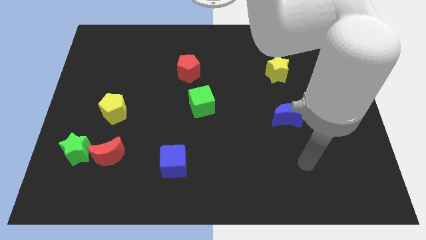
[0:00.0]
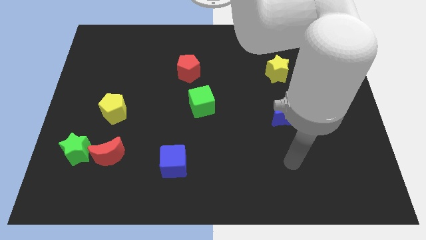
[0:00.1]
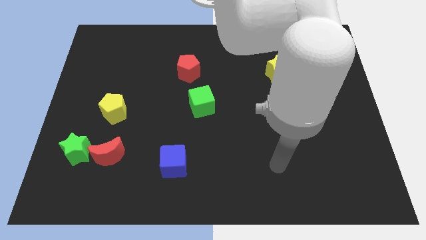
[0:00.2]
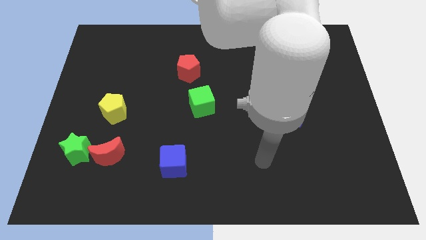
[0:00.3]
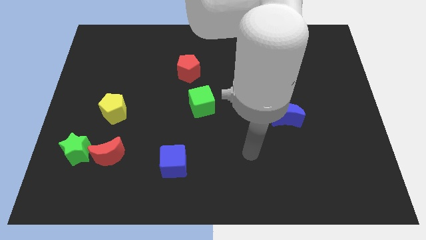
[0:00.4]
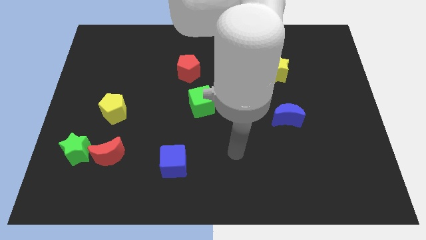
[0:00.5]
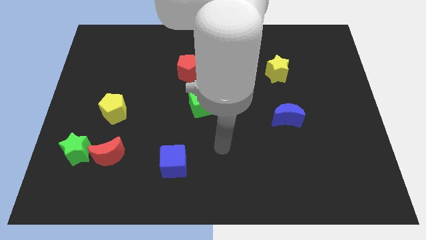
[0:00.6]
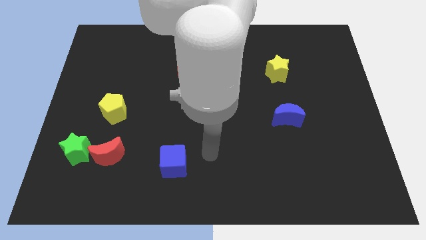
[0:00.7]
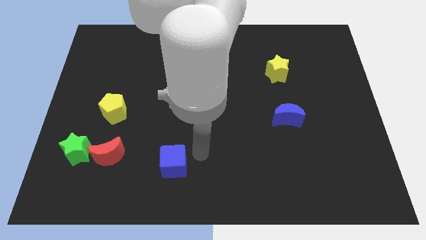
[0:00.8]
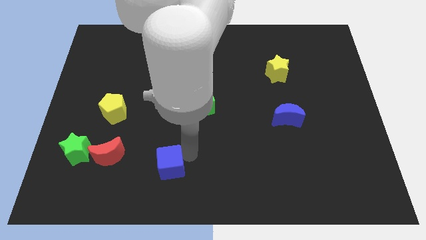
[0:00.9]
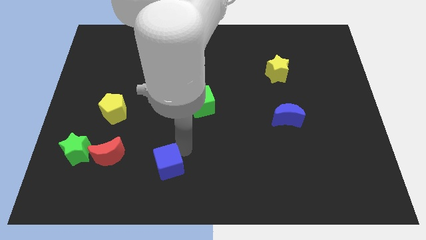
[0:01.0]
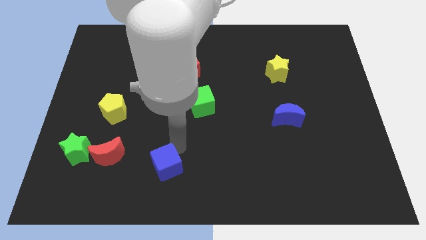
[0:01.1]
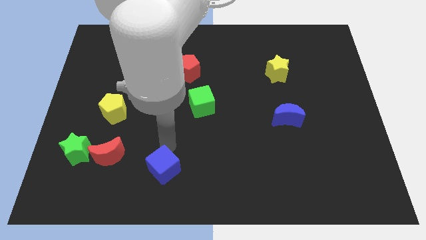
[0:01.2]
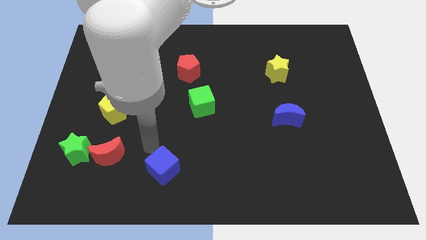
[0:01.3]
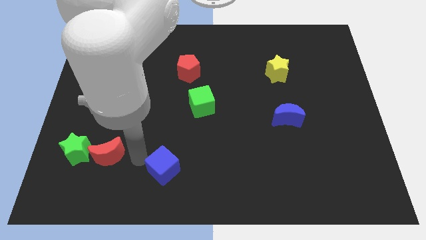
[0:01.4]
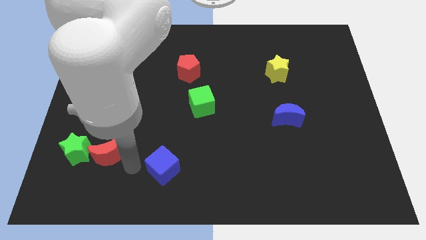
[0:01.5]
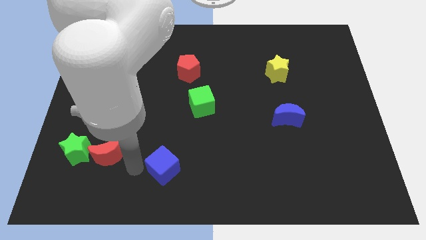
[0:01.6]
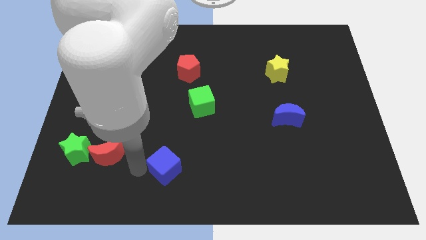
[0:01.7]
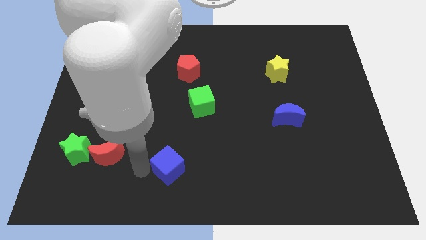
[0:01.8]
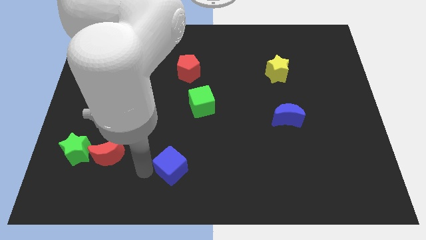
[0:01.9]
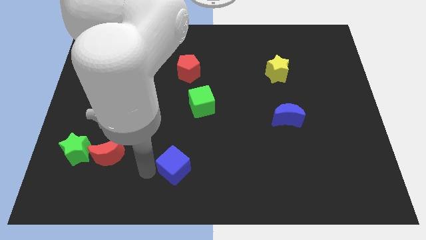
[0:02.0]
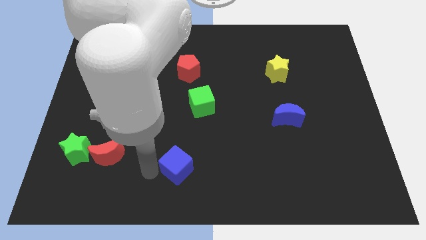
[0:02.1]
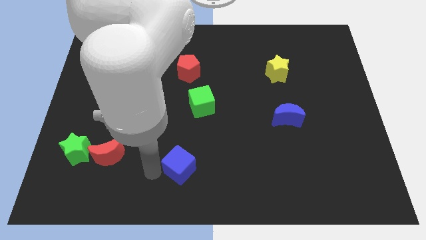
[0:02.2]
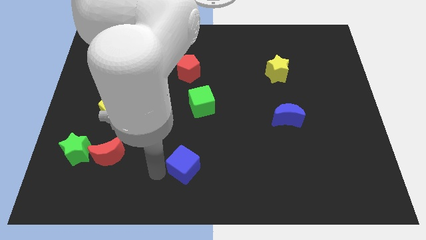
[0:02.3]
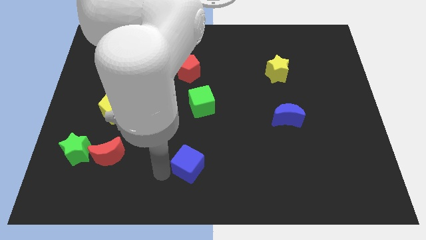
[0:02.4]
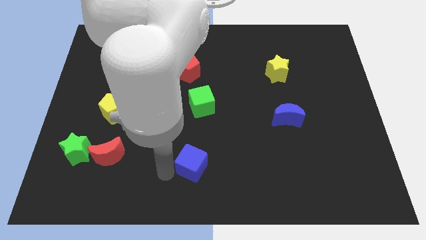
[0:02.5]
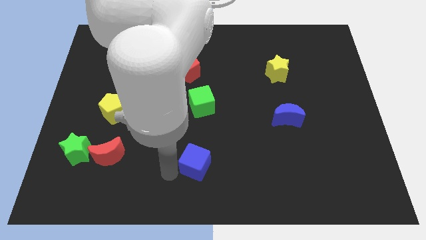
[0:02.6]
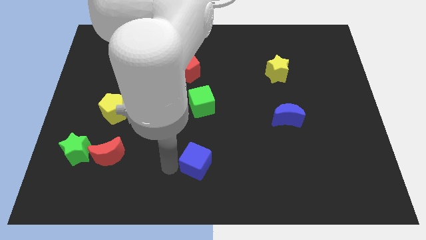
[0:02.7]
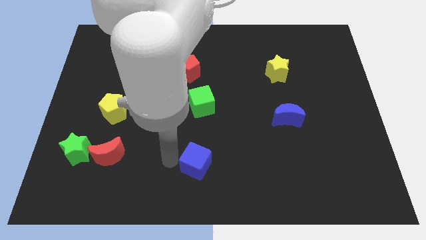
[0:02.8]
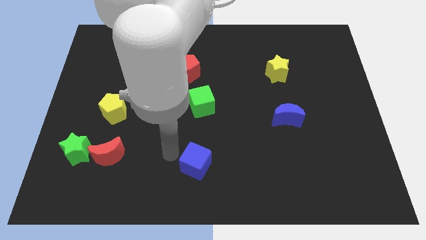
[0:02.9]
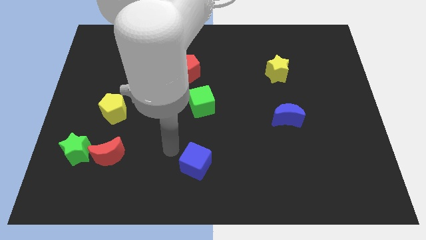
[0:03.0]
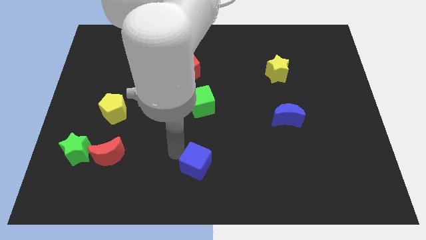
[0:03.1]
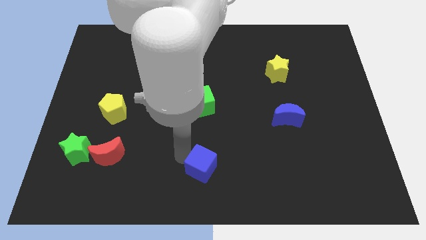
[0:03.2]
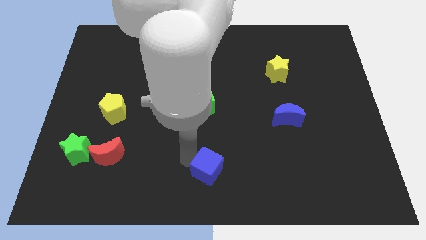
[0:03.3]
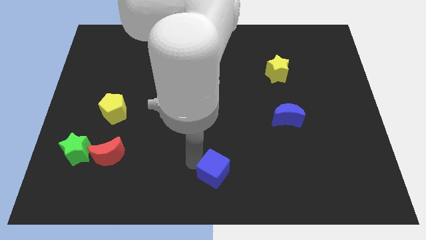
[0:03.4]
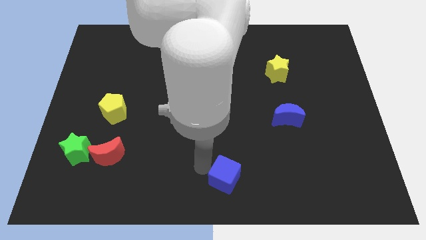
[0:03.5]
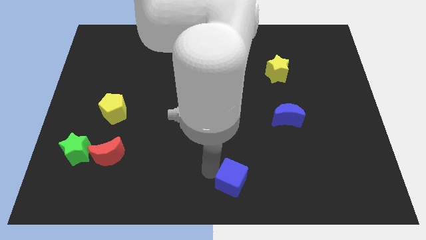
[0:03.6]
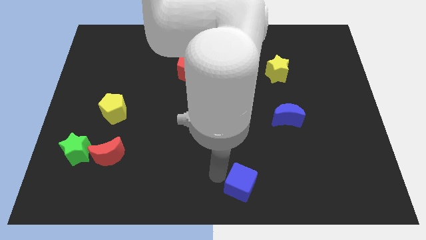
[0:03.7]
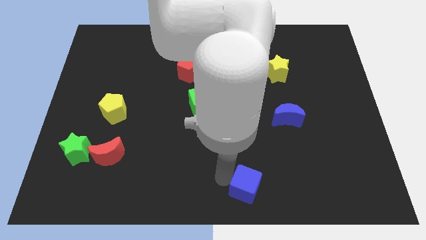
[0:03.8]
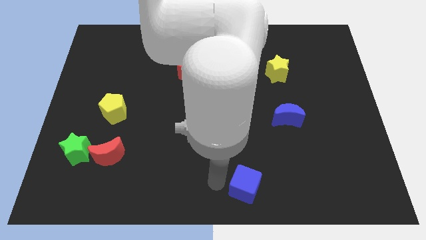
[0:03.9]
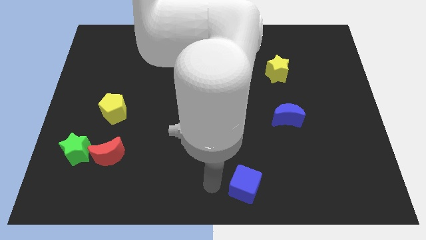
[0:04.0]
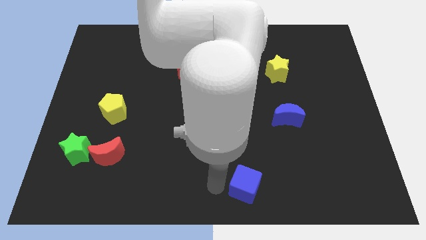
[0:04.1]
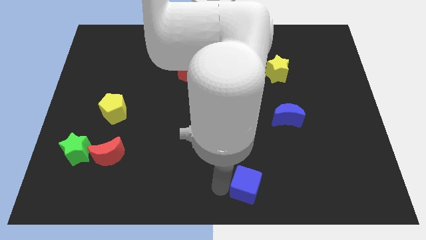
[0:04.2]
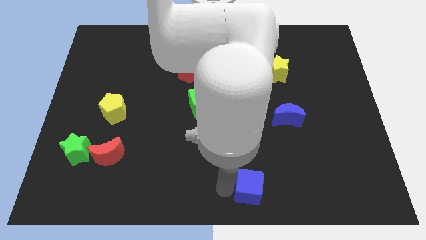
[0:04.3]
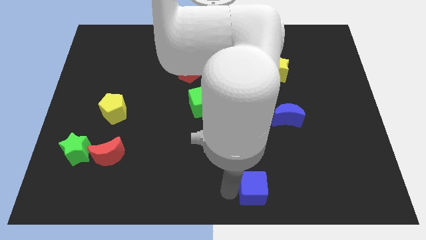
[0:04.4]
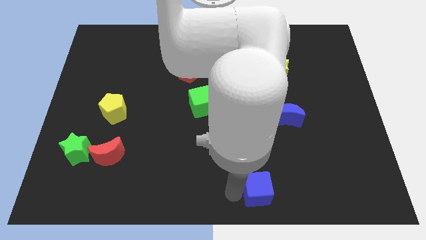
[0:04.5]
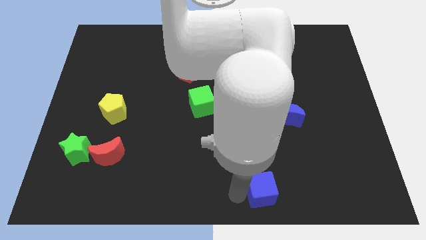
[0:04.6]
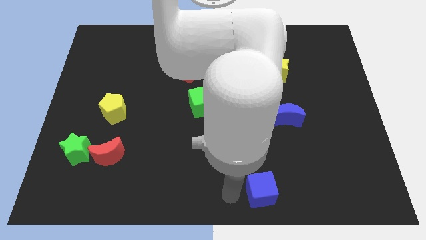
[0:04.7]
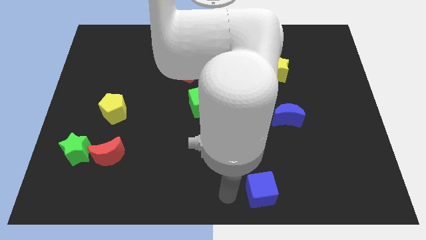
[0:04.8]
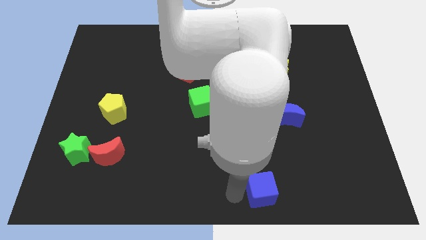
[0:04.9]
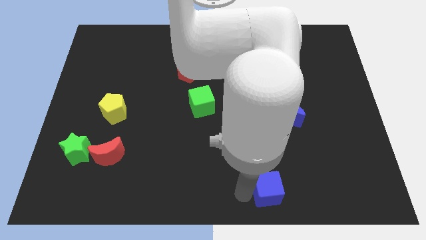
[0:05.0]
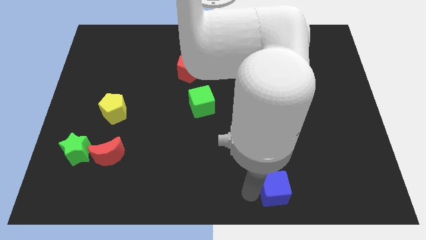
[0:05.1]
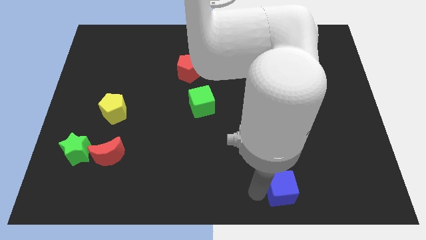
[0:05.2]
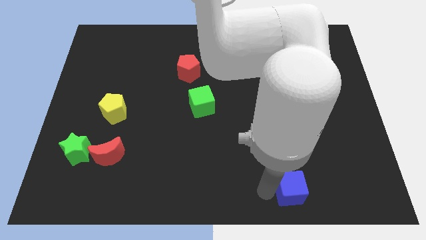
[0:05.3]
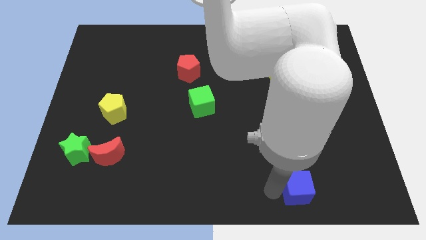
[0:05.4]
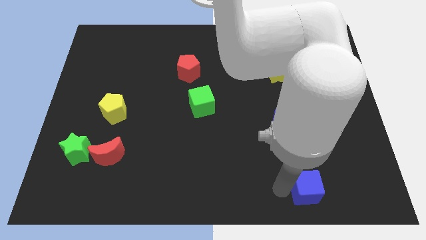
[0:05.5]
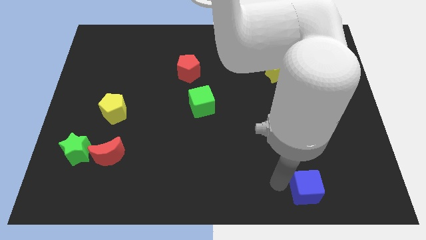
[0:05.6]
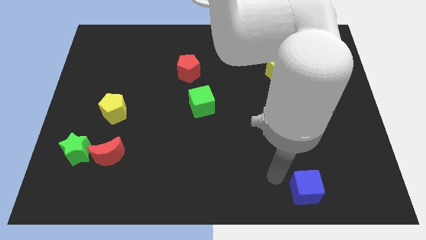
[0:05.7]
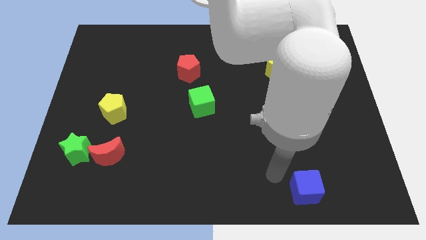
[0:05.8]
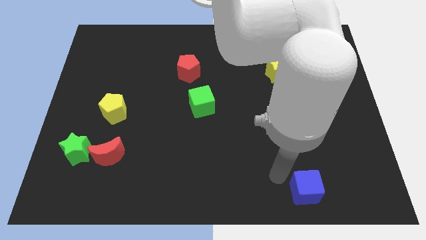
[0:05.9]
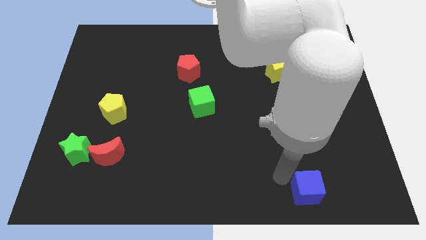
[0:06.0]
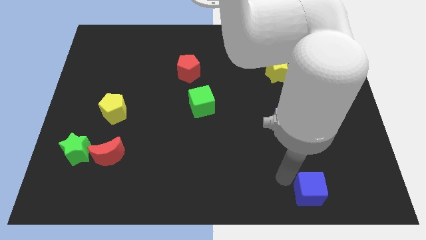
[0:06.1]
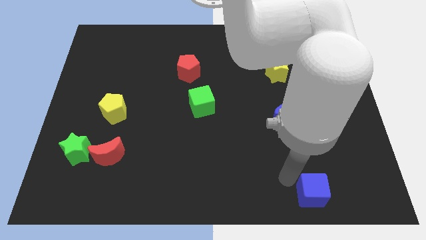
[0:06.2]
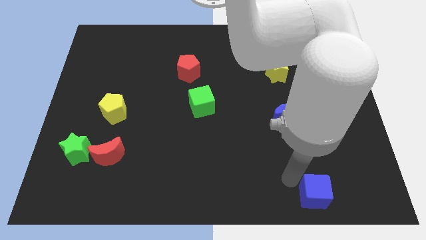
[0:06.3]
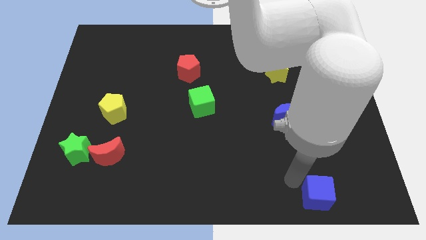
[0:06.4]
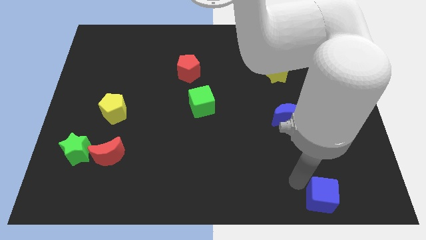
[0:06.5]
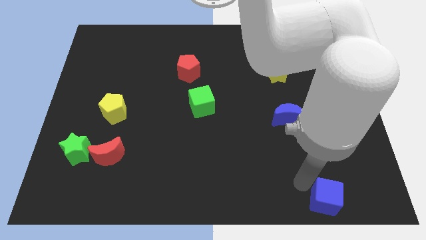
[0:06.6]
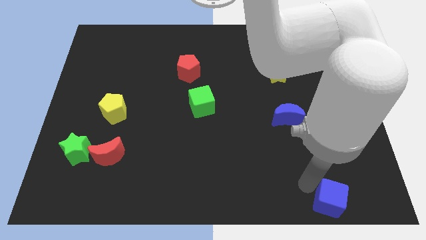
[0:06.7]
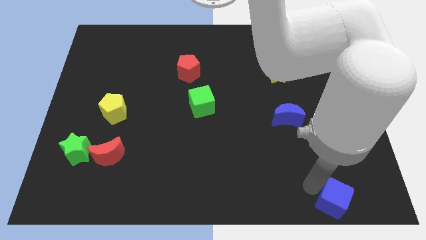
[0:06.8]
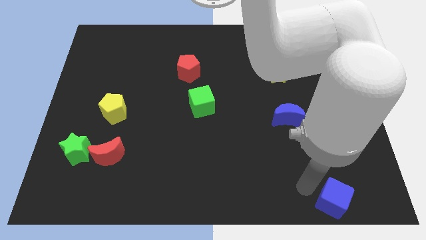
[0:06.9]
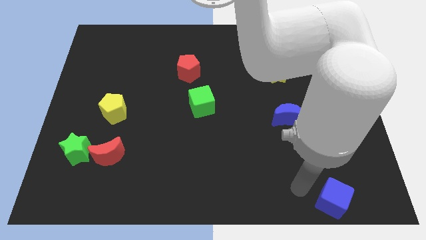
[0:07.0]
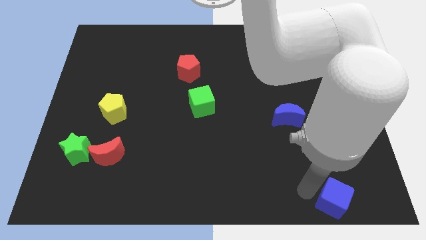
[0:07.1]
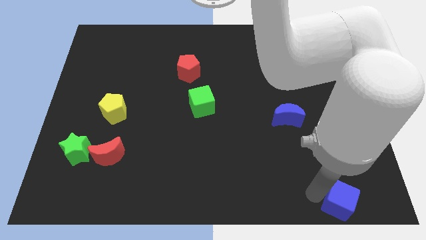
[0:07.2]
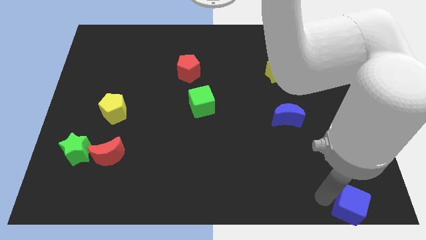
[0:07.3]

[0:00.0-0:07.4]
put the blue cube to the bottom right corner
